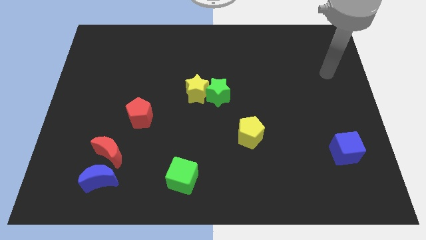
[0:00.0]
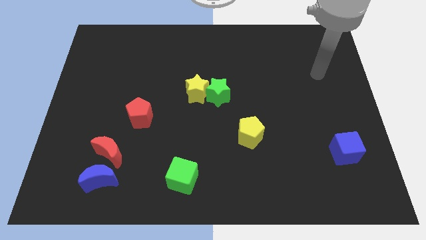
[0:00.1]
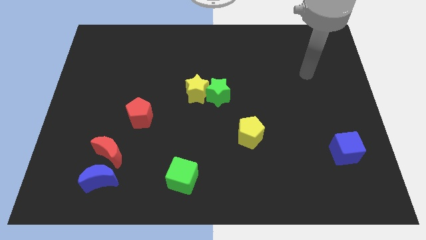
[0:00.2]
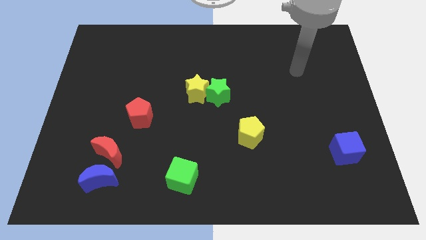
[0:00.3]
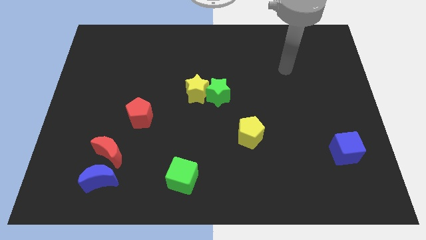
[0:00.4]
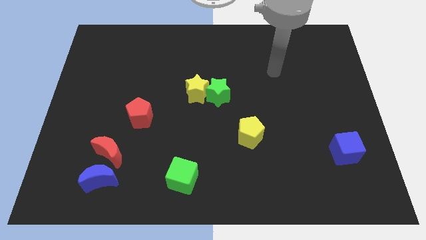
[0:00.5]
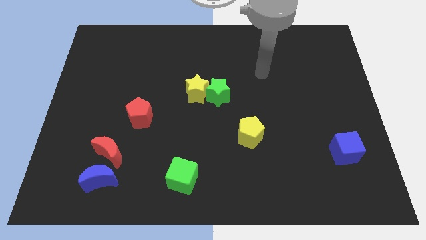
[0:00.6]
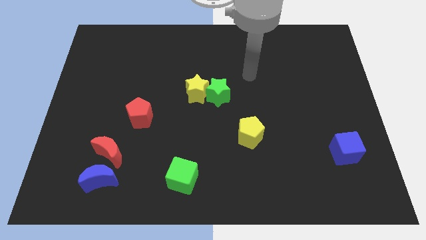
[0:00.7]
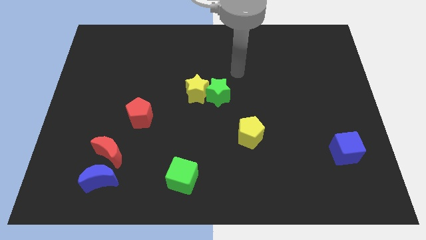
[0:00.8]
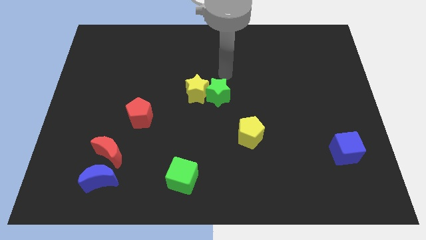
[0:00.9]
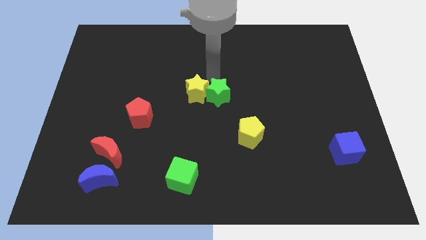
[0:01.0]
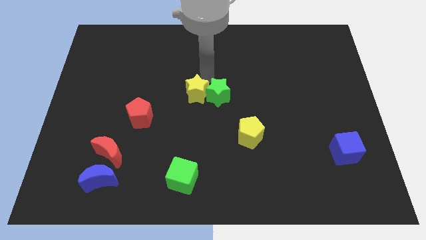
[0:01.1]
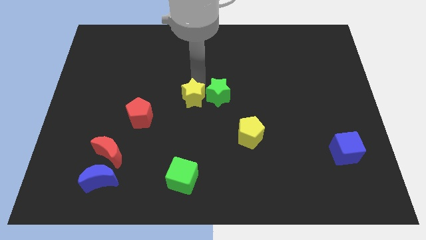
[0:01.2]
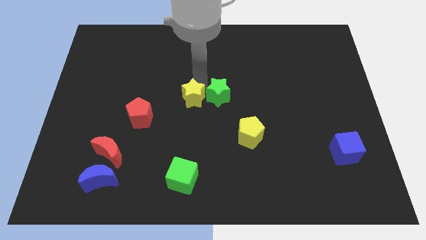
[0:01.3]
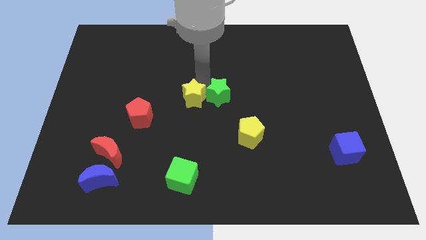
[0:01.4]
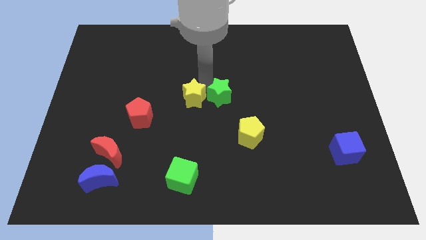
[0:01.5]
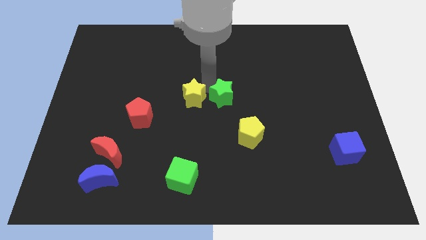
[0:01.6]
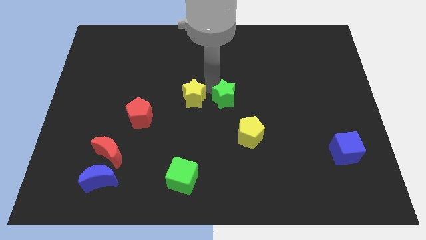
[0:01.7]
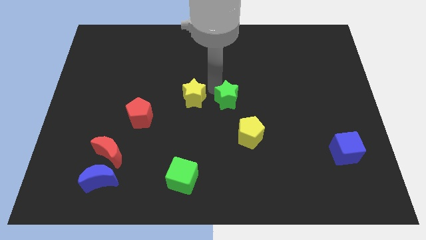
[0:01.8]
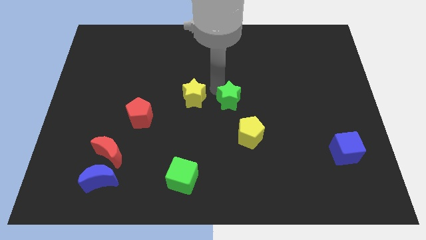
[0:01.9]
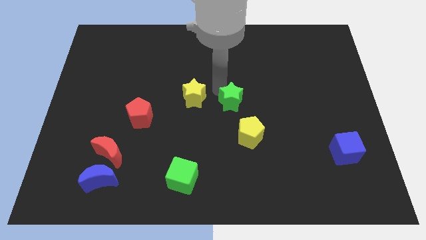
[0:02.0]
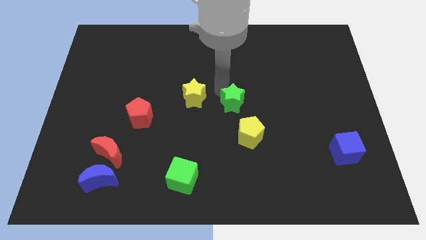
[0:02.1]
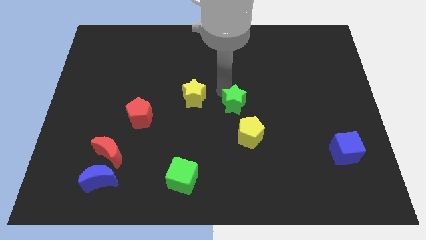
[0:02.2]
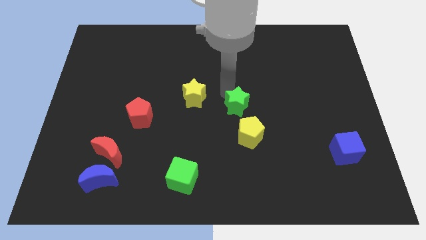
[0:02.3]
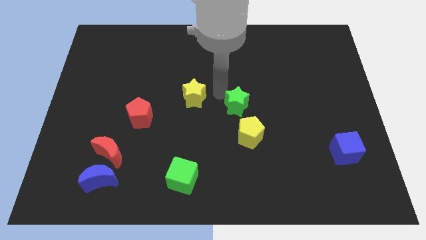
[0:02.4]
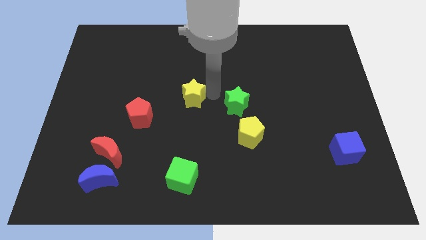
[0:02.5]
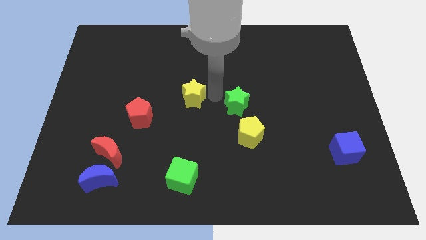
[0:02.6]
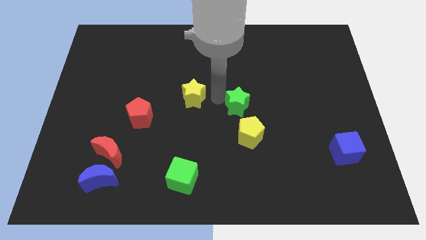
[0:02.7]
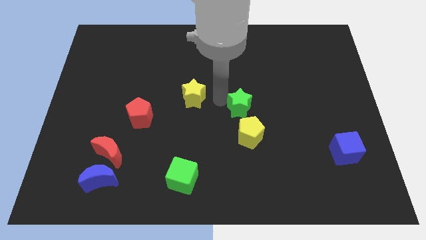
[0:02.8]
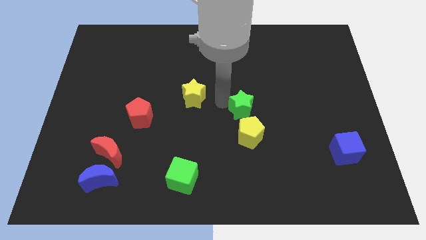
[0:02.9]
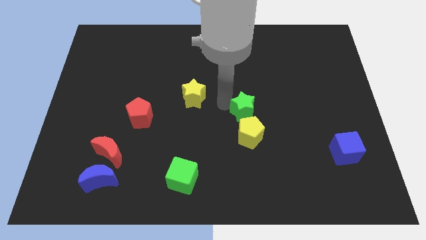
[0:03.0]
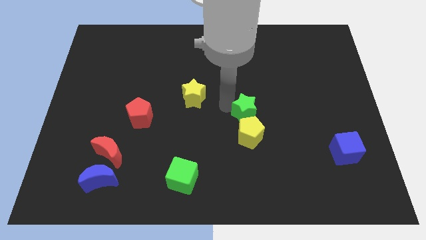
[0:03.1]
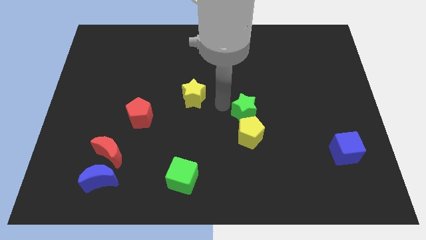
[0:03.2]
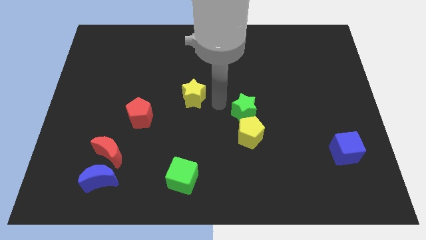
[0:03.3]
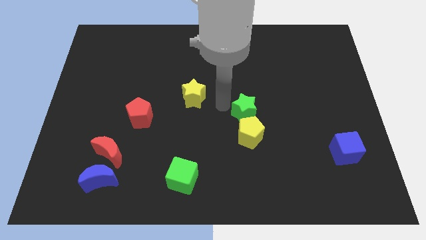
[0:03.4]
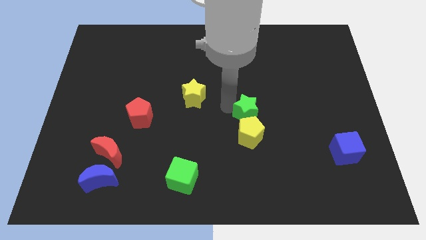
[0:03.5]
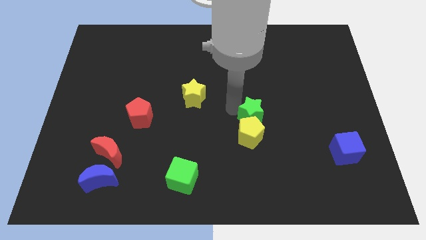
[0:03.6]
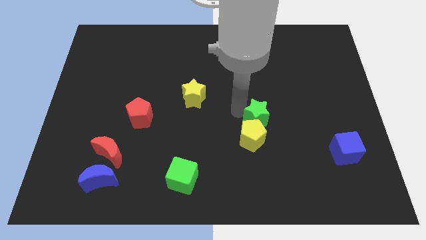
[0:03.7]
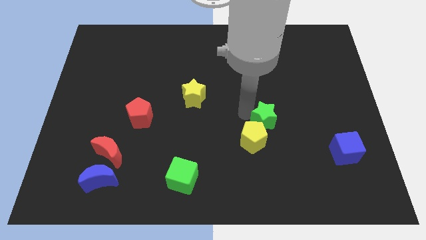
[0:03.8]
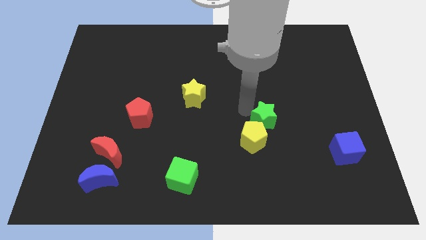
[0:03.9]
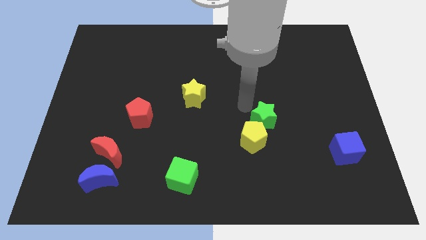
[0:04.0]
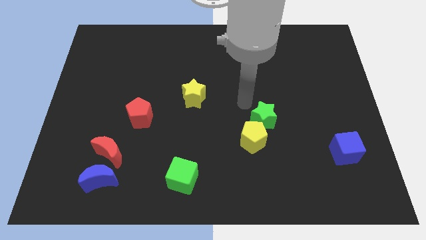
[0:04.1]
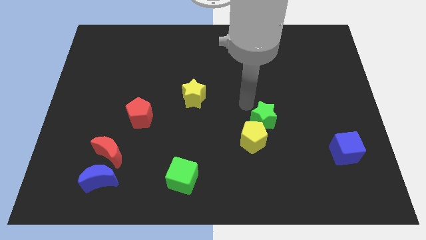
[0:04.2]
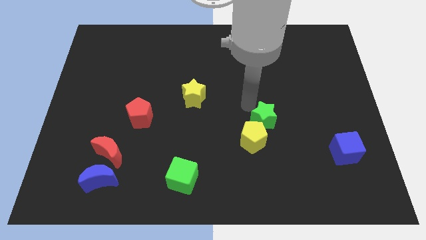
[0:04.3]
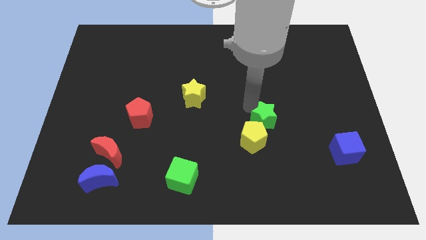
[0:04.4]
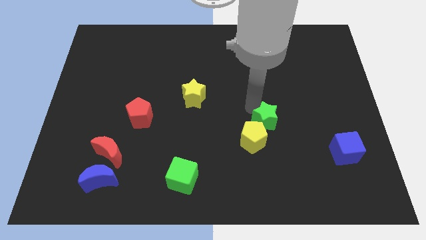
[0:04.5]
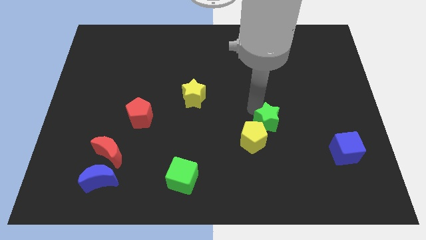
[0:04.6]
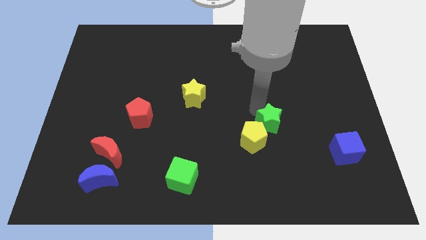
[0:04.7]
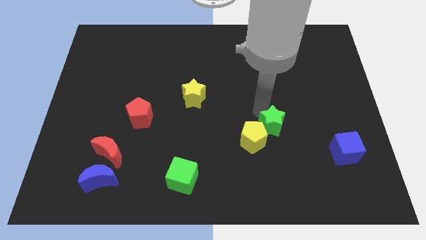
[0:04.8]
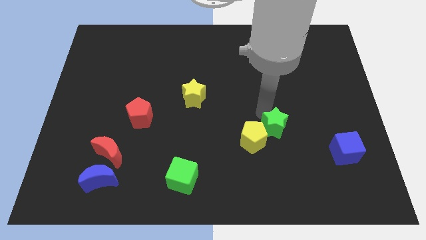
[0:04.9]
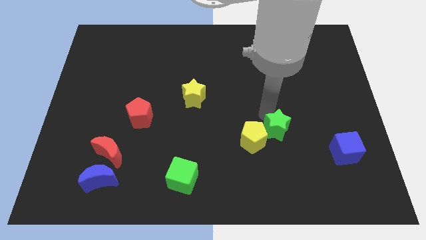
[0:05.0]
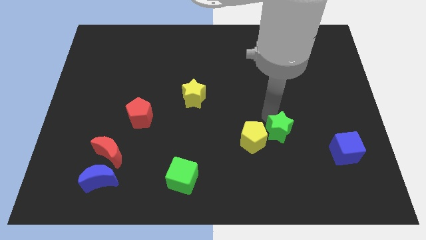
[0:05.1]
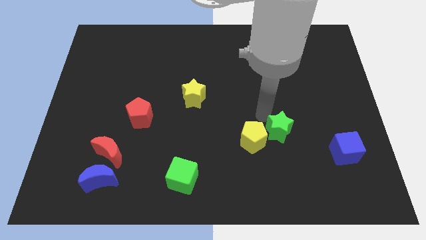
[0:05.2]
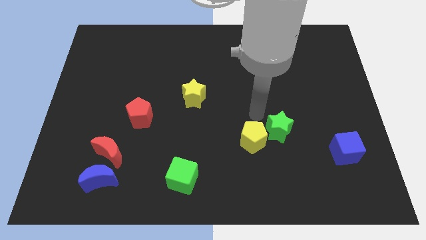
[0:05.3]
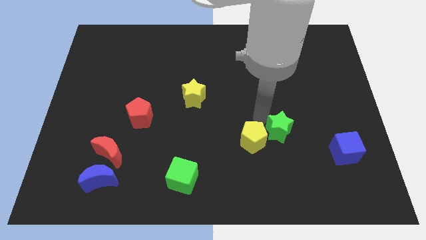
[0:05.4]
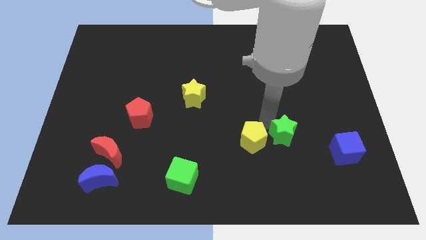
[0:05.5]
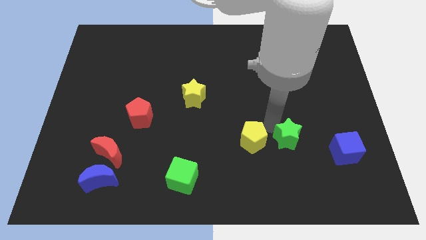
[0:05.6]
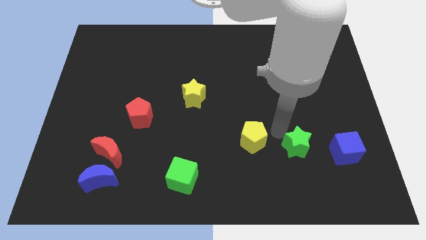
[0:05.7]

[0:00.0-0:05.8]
slide the green star down and to the right diagonally

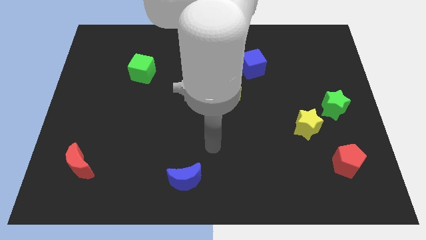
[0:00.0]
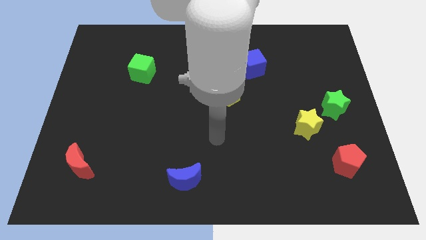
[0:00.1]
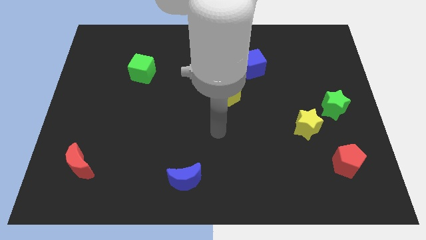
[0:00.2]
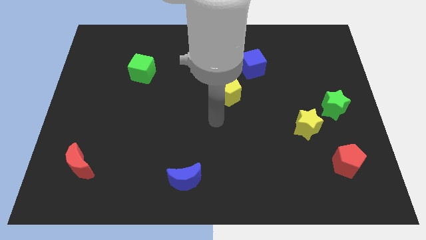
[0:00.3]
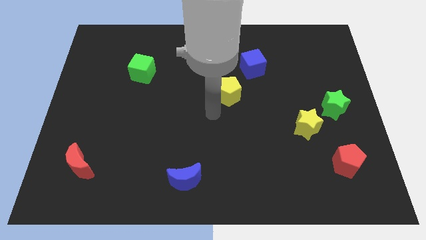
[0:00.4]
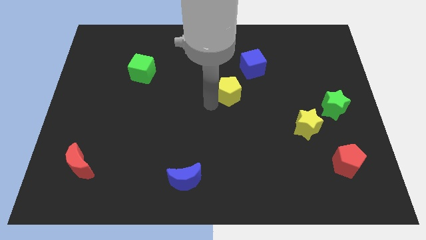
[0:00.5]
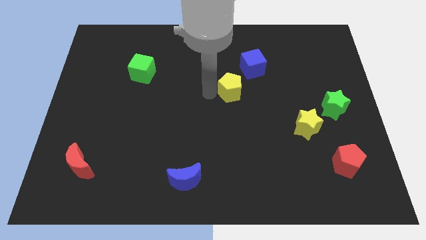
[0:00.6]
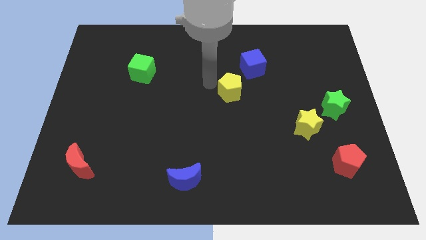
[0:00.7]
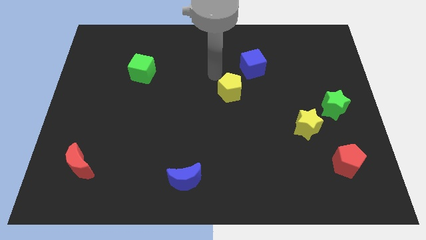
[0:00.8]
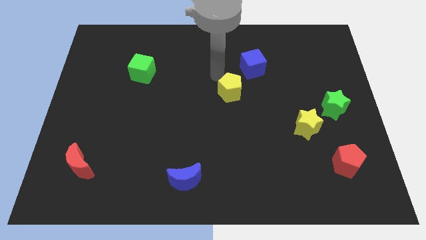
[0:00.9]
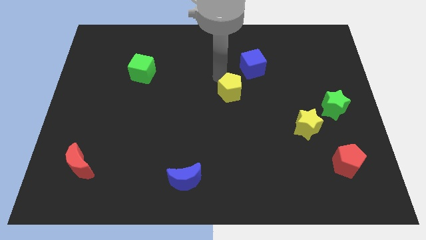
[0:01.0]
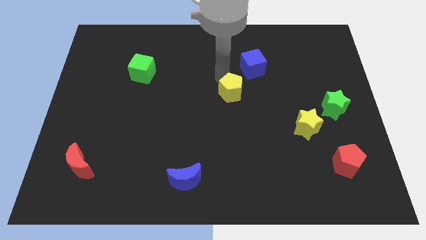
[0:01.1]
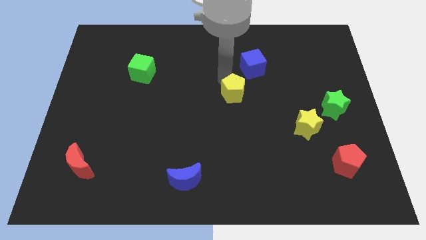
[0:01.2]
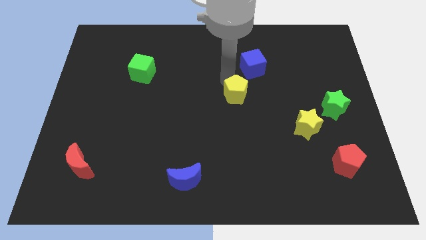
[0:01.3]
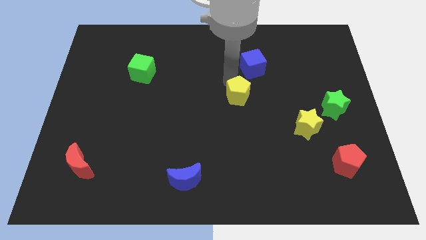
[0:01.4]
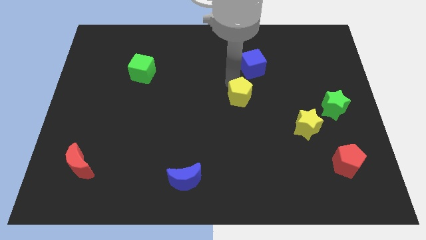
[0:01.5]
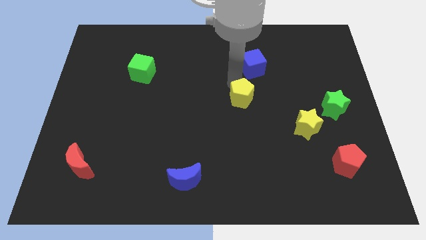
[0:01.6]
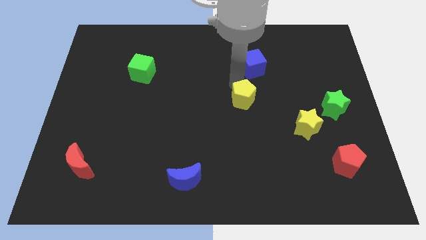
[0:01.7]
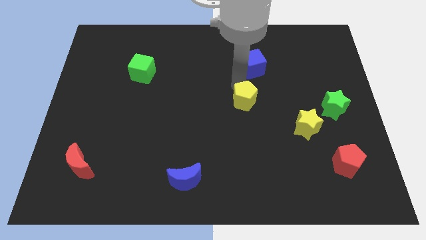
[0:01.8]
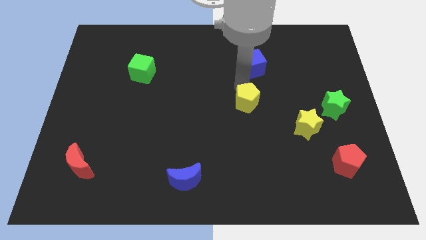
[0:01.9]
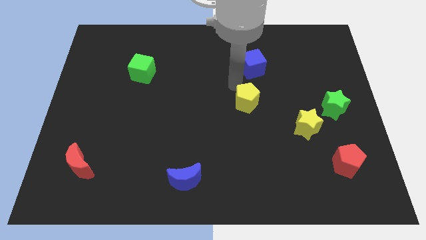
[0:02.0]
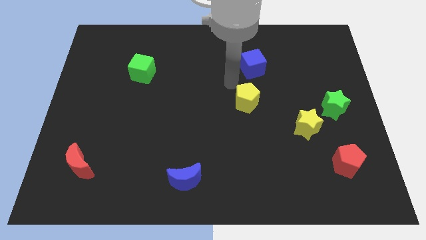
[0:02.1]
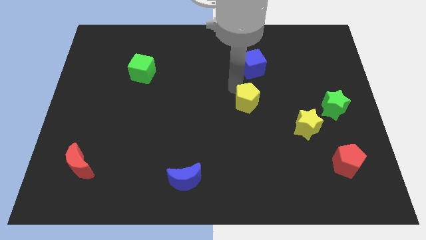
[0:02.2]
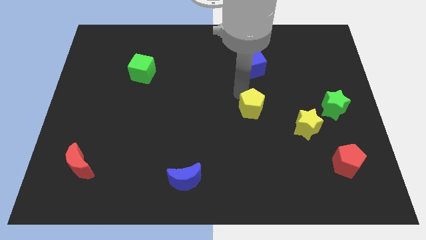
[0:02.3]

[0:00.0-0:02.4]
slightly push the yellow pentagon downwards and to the right diagonally
